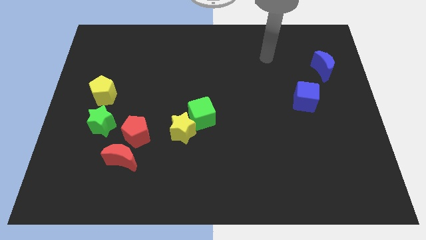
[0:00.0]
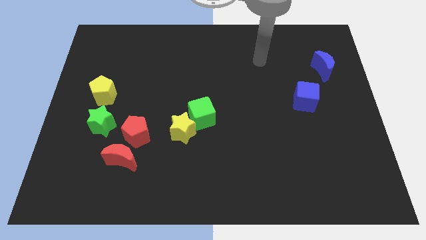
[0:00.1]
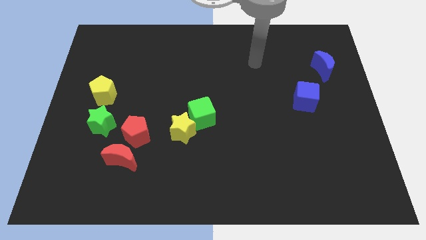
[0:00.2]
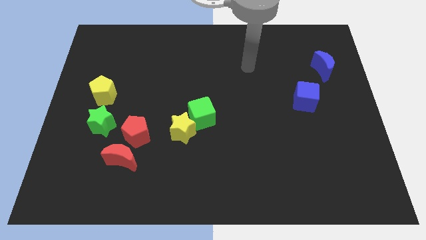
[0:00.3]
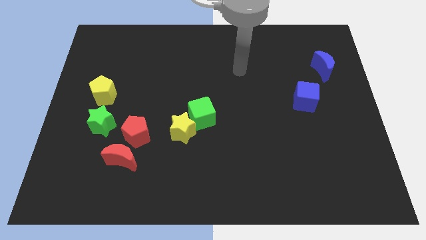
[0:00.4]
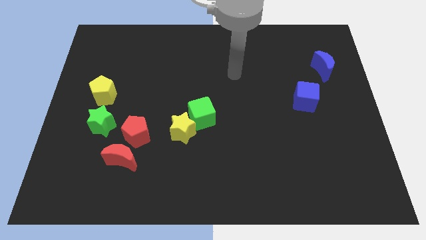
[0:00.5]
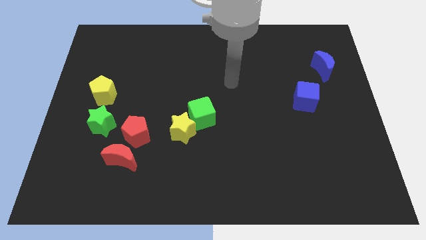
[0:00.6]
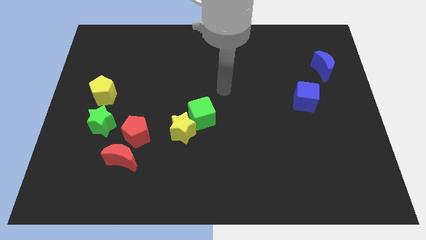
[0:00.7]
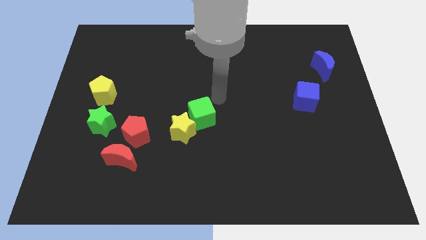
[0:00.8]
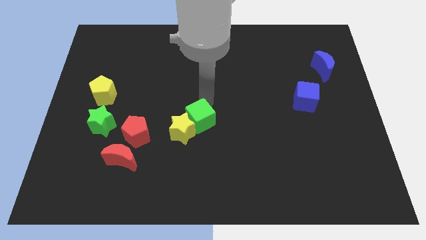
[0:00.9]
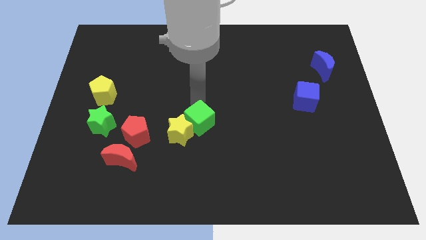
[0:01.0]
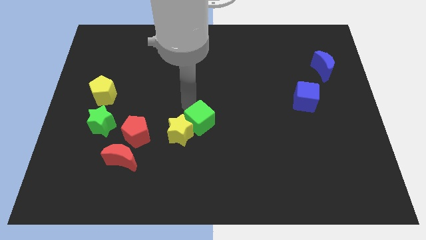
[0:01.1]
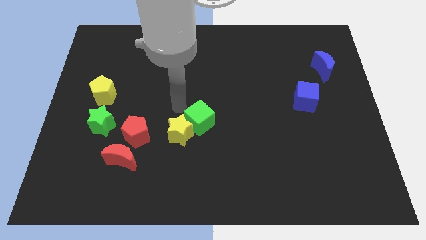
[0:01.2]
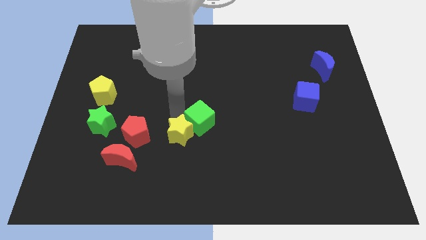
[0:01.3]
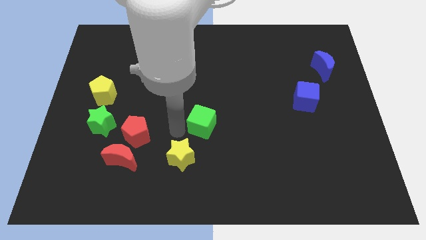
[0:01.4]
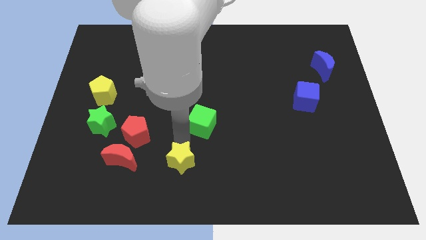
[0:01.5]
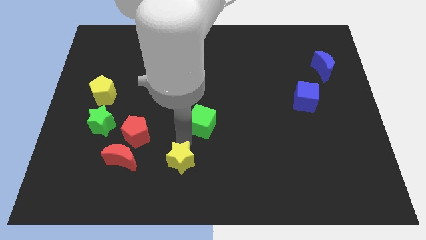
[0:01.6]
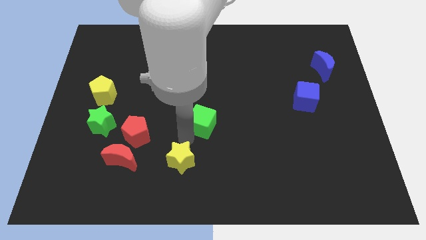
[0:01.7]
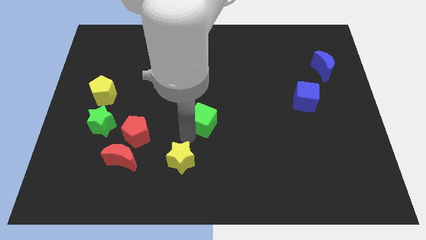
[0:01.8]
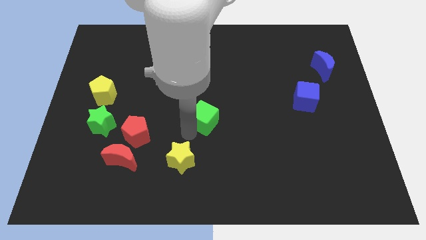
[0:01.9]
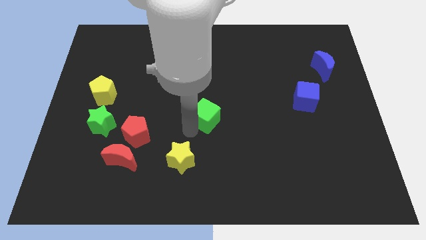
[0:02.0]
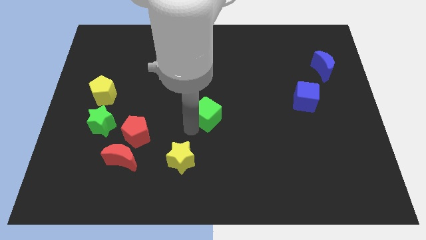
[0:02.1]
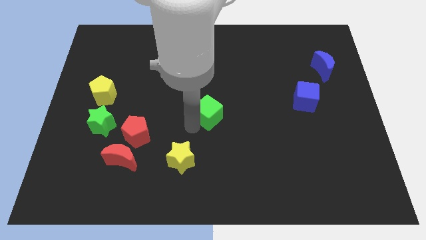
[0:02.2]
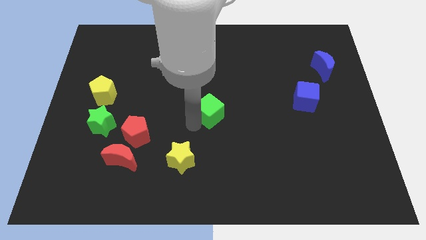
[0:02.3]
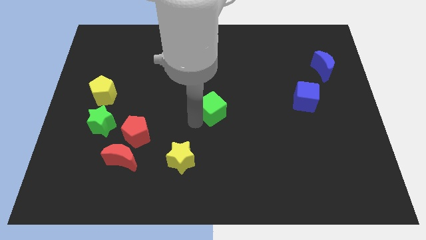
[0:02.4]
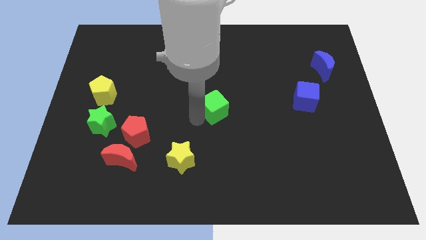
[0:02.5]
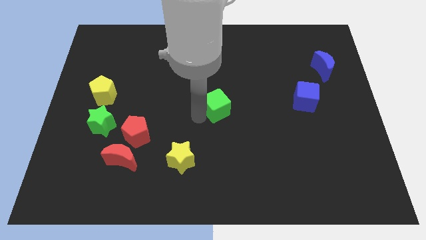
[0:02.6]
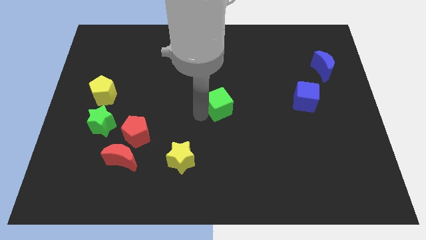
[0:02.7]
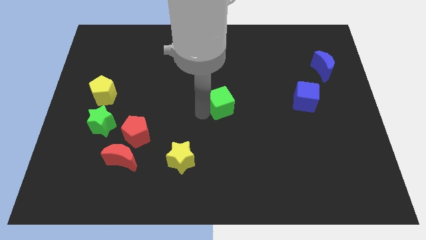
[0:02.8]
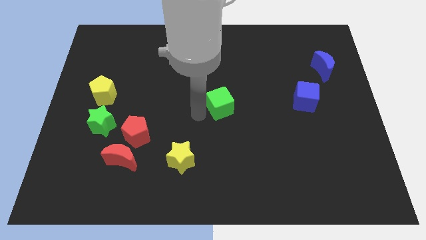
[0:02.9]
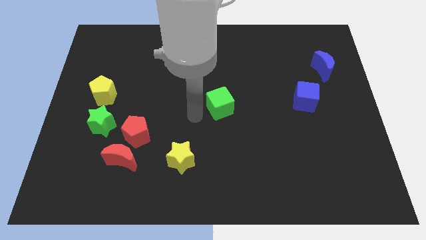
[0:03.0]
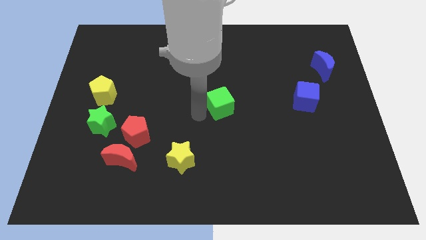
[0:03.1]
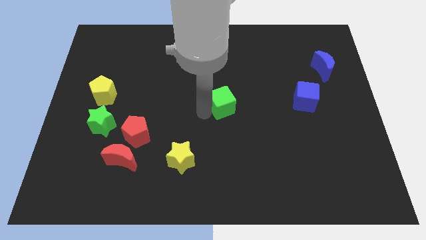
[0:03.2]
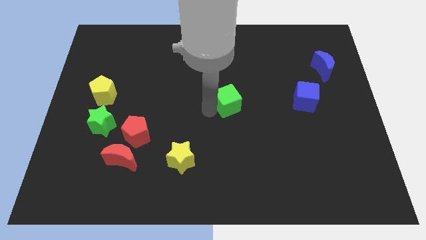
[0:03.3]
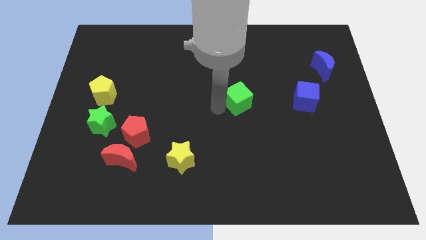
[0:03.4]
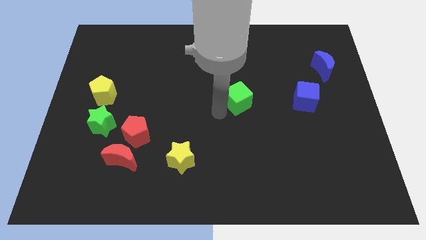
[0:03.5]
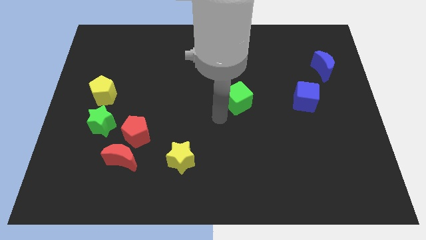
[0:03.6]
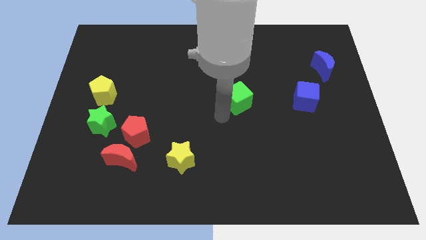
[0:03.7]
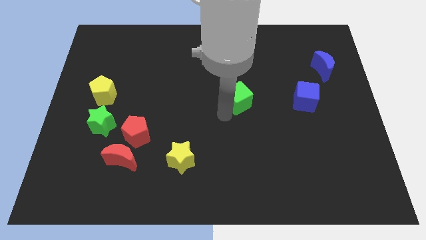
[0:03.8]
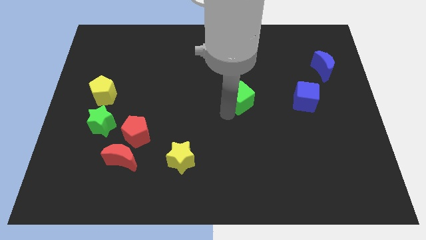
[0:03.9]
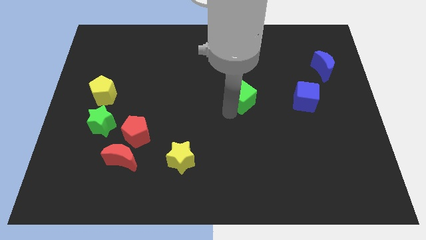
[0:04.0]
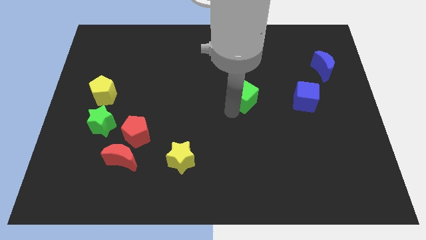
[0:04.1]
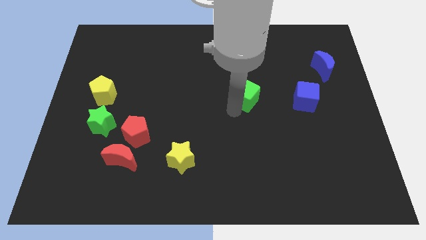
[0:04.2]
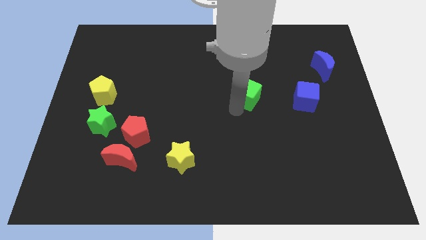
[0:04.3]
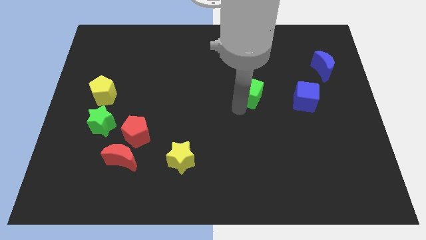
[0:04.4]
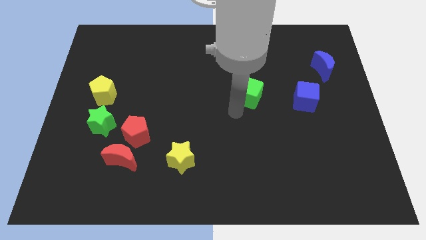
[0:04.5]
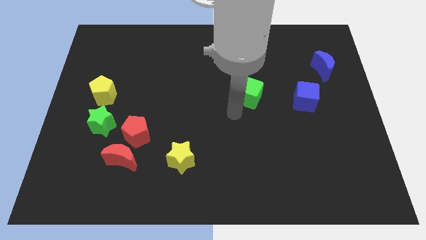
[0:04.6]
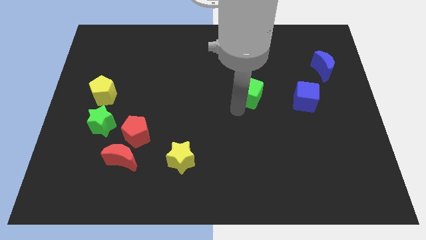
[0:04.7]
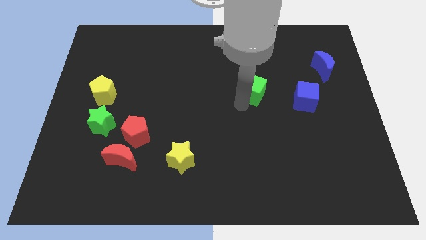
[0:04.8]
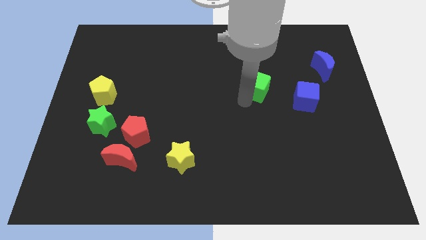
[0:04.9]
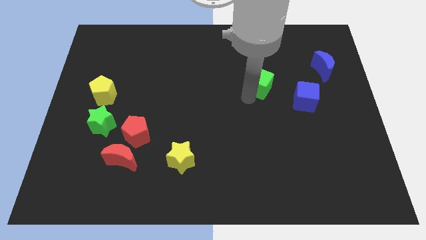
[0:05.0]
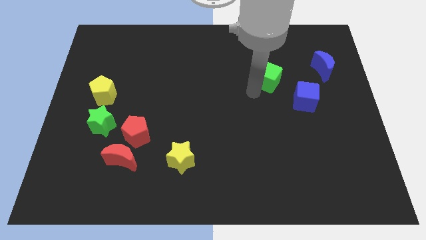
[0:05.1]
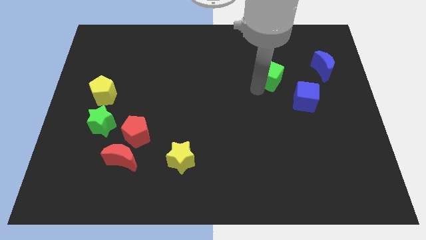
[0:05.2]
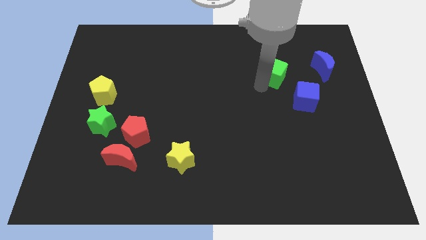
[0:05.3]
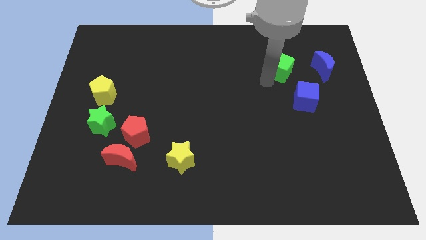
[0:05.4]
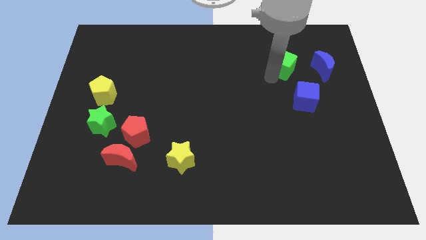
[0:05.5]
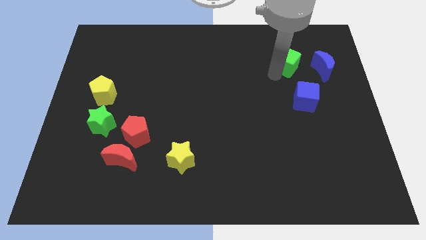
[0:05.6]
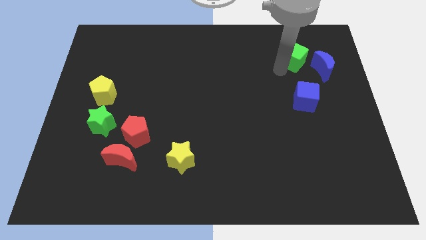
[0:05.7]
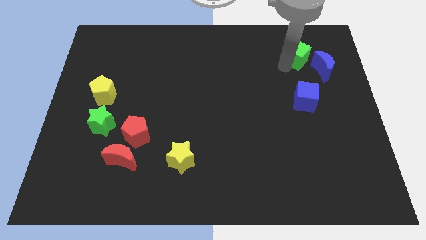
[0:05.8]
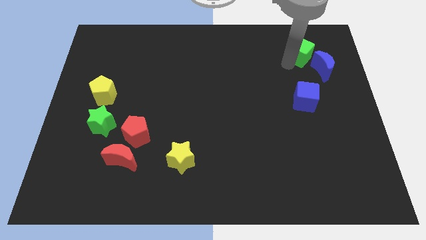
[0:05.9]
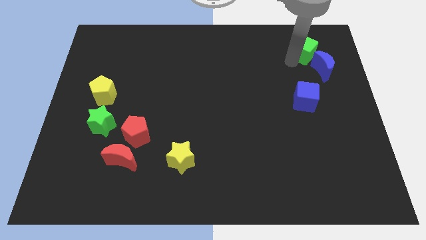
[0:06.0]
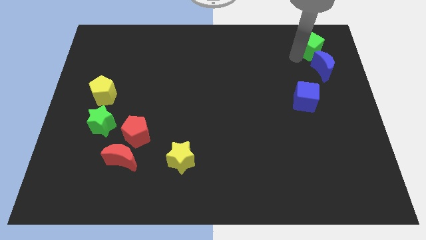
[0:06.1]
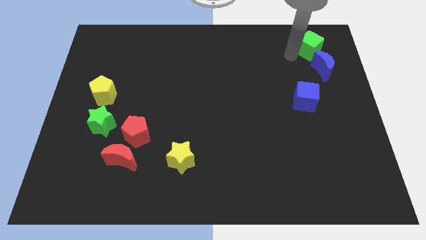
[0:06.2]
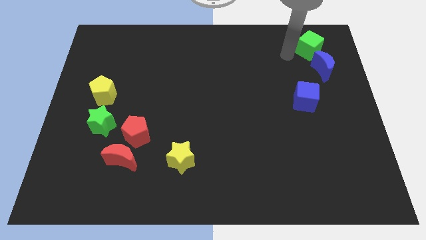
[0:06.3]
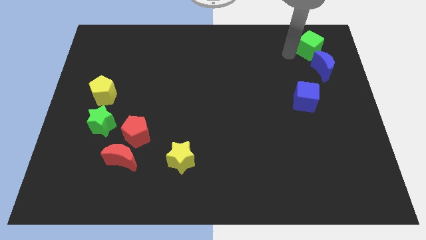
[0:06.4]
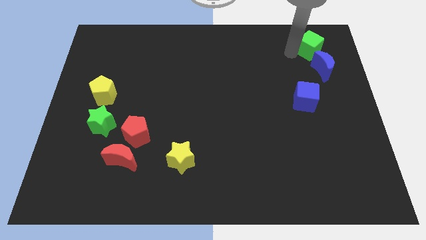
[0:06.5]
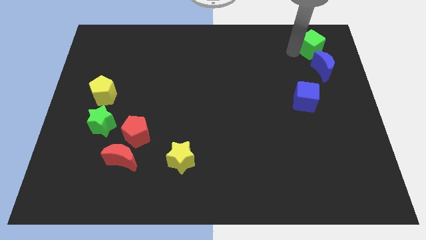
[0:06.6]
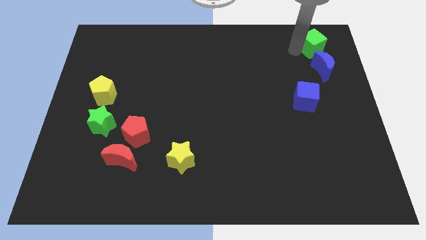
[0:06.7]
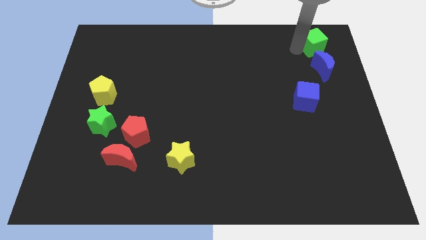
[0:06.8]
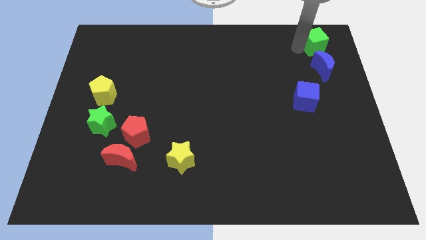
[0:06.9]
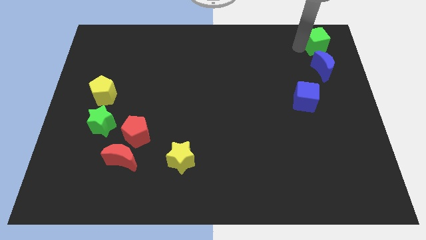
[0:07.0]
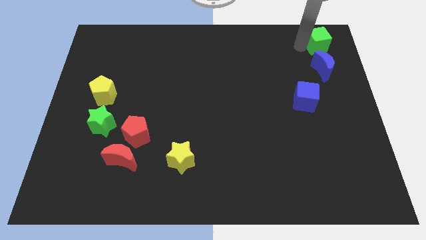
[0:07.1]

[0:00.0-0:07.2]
push the green cube to the top right corner
